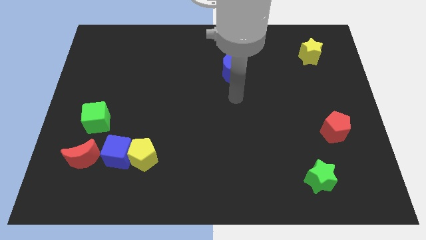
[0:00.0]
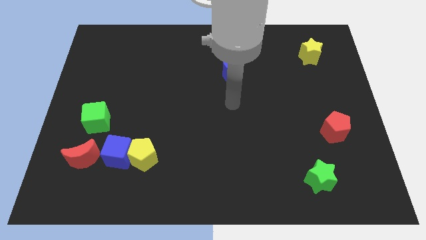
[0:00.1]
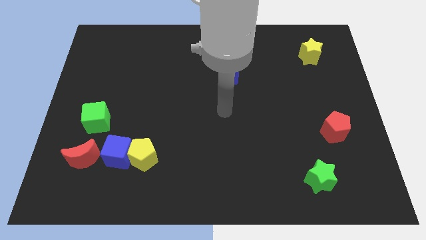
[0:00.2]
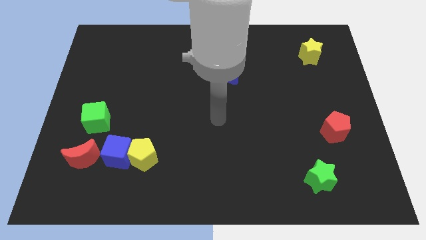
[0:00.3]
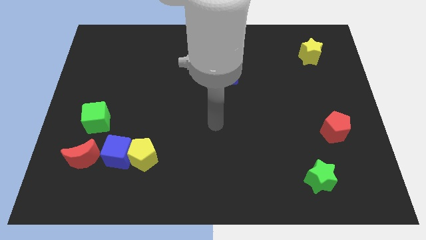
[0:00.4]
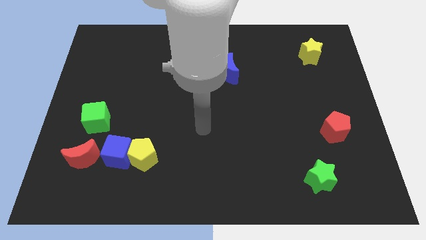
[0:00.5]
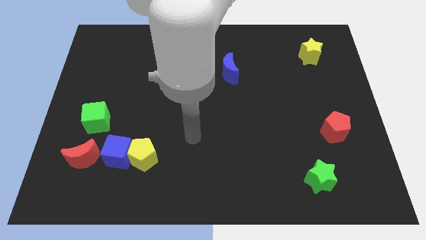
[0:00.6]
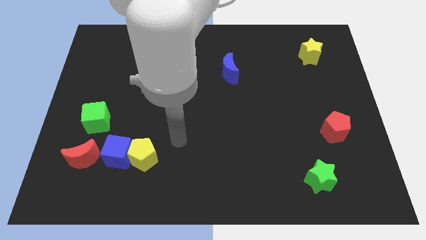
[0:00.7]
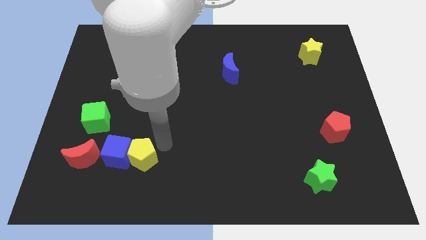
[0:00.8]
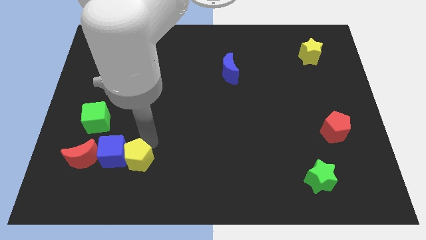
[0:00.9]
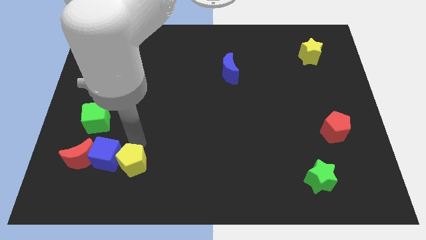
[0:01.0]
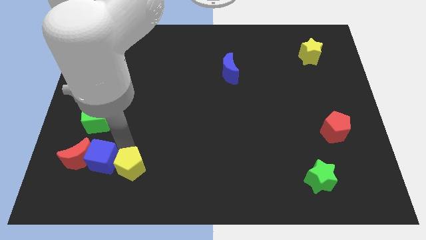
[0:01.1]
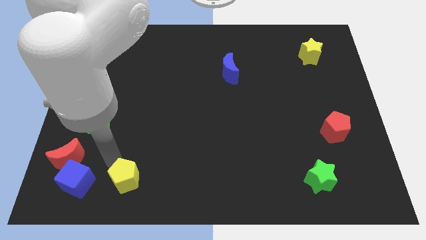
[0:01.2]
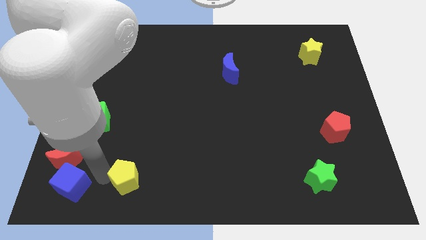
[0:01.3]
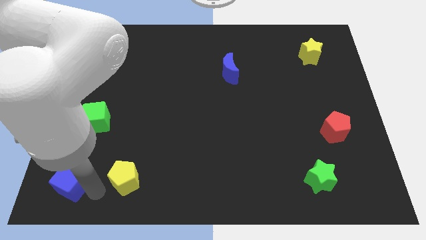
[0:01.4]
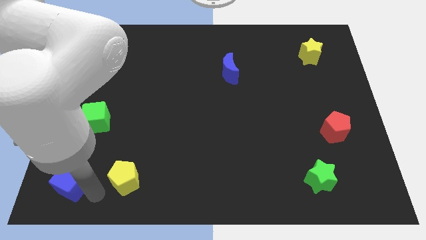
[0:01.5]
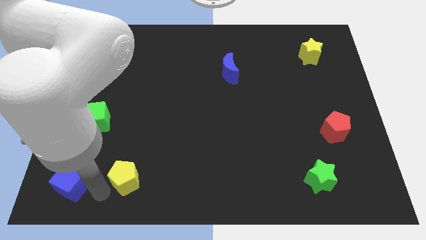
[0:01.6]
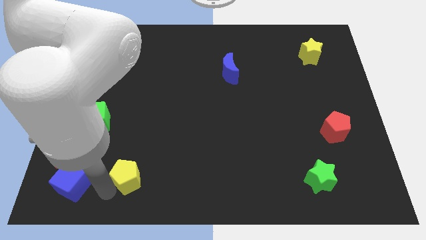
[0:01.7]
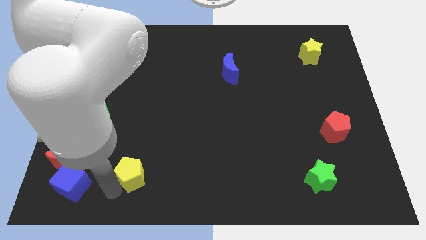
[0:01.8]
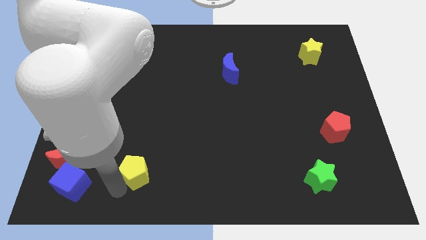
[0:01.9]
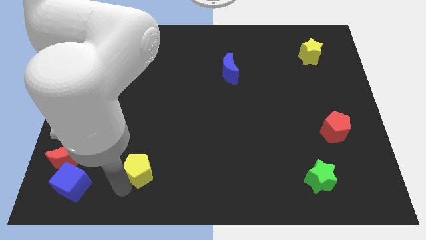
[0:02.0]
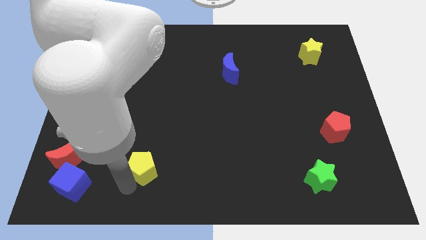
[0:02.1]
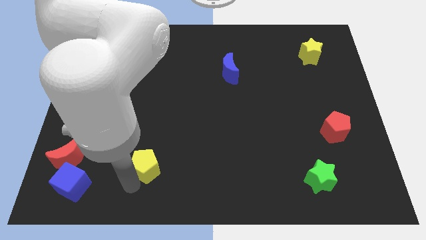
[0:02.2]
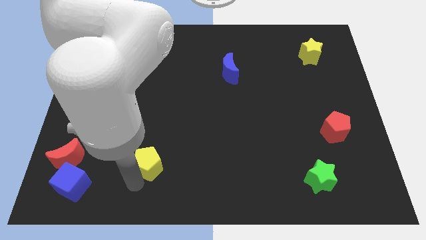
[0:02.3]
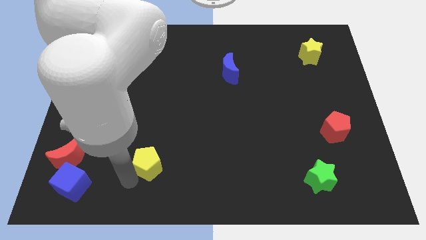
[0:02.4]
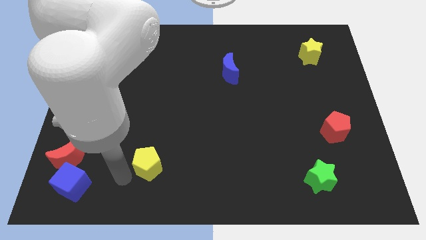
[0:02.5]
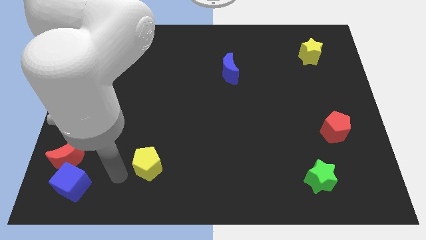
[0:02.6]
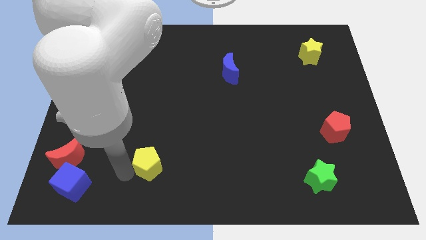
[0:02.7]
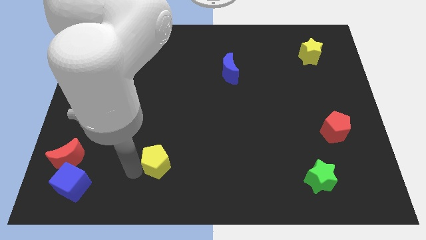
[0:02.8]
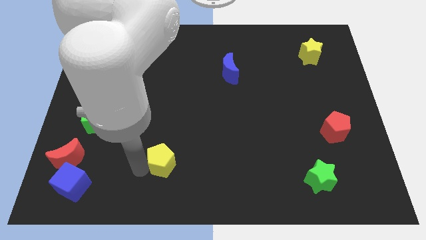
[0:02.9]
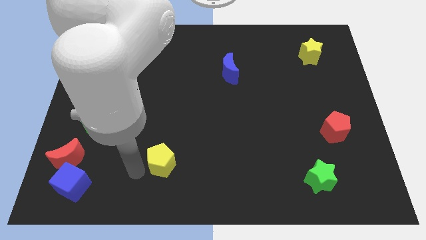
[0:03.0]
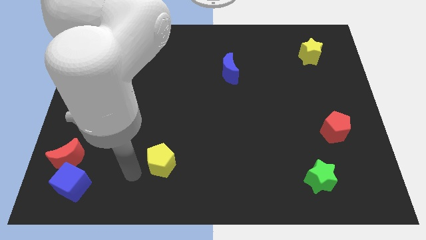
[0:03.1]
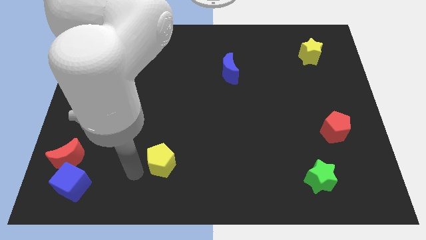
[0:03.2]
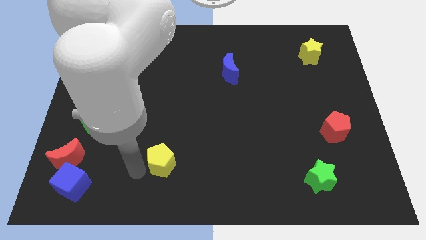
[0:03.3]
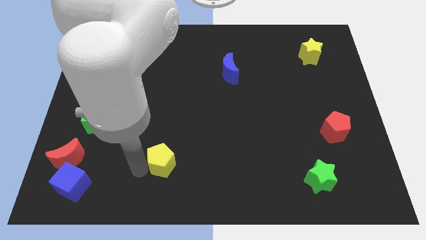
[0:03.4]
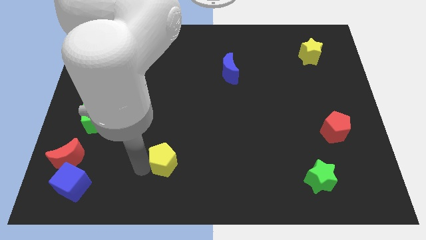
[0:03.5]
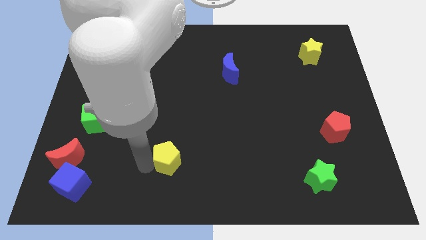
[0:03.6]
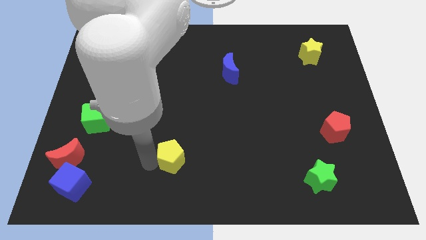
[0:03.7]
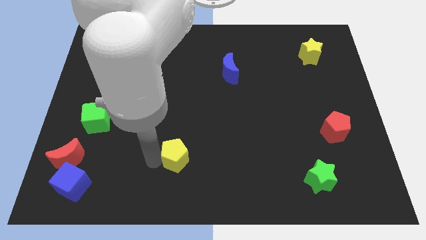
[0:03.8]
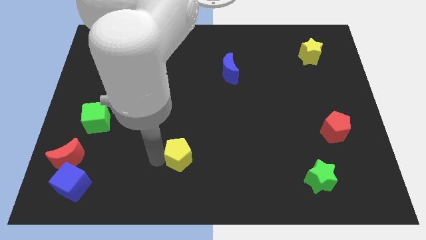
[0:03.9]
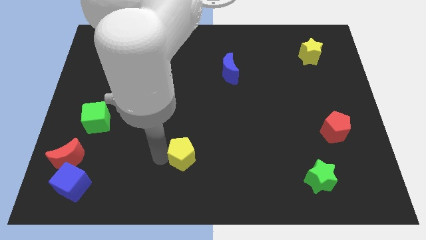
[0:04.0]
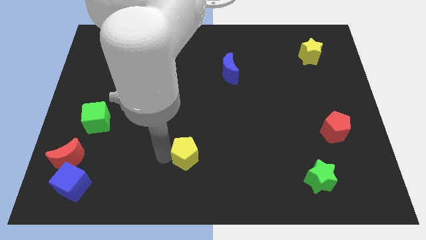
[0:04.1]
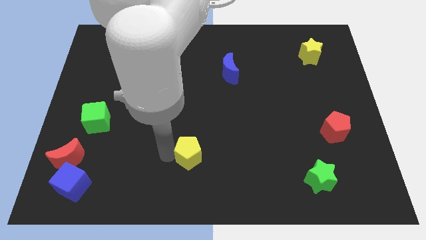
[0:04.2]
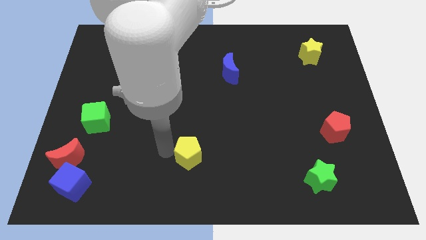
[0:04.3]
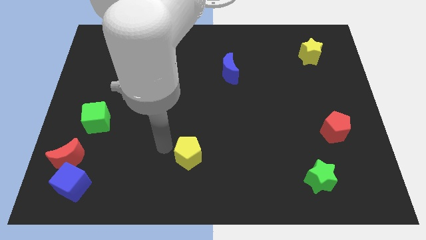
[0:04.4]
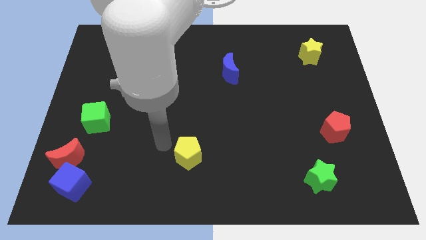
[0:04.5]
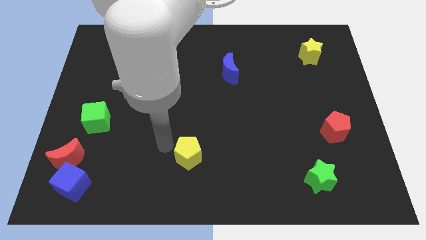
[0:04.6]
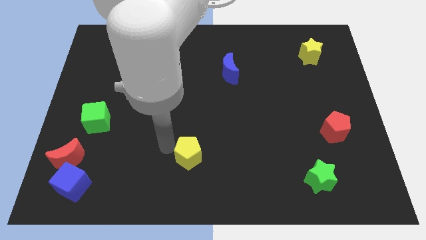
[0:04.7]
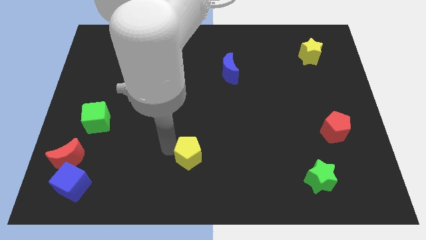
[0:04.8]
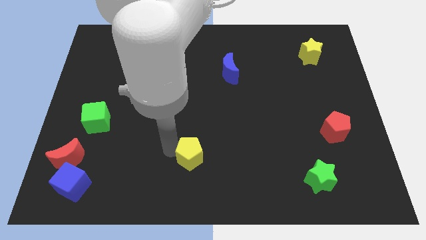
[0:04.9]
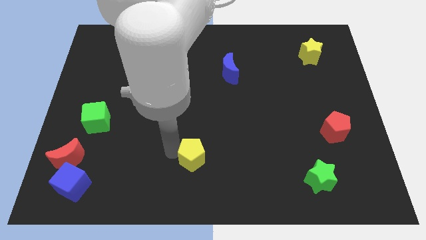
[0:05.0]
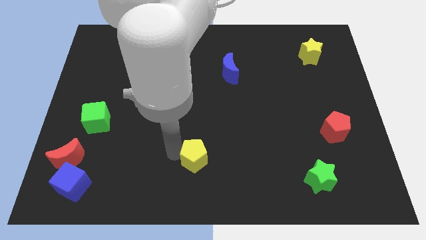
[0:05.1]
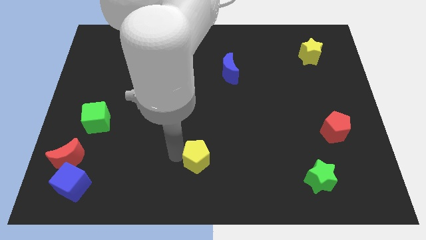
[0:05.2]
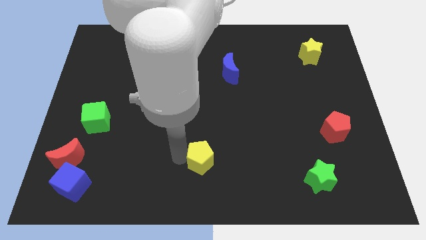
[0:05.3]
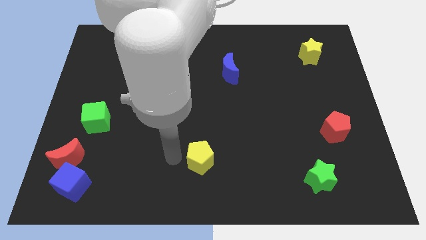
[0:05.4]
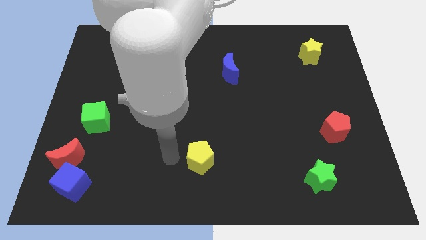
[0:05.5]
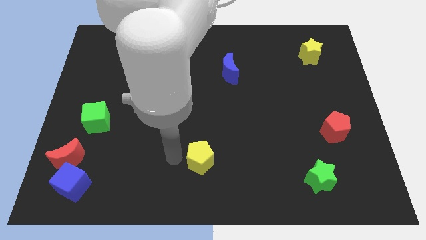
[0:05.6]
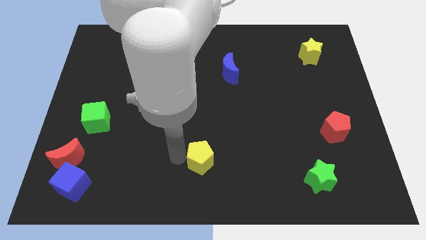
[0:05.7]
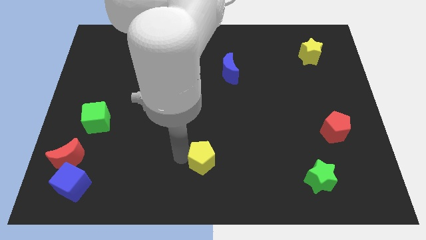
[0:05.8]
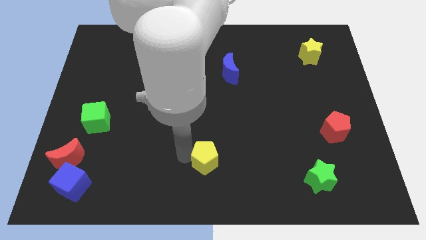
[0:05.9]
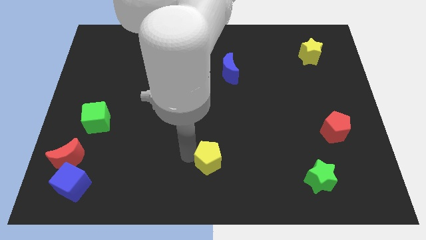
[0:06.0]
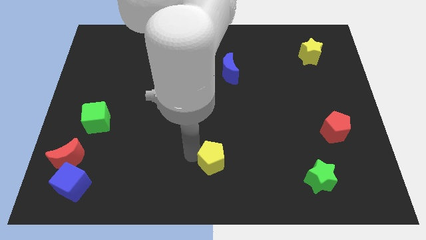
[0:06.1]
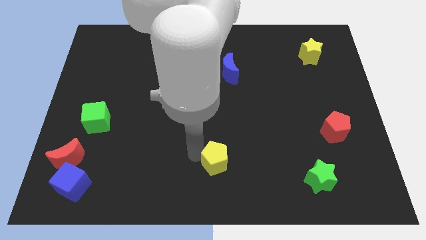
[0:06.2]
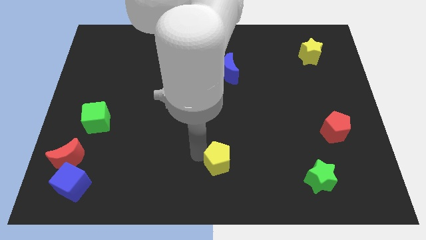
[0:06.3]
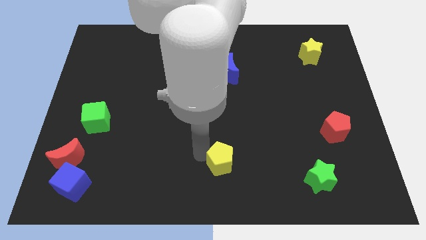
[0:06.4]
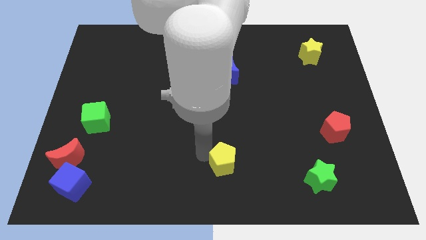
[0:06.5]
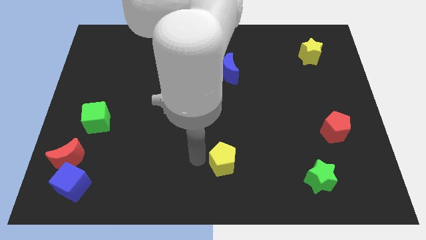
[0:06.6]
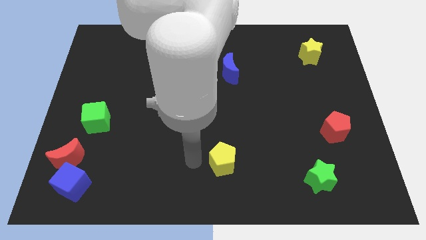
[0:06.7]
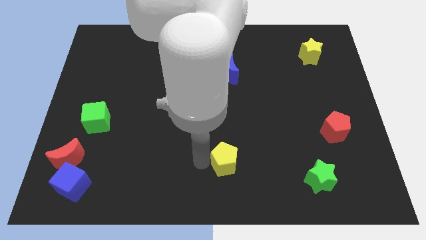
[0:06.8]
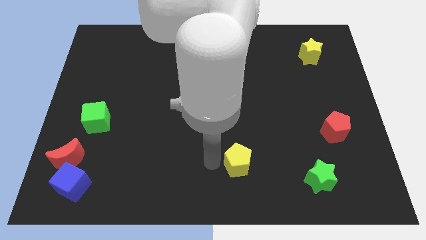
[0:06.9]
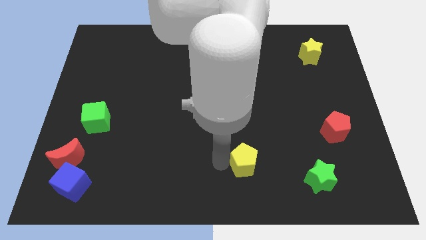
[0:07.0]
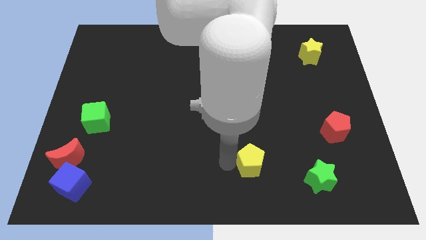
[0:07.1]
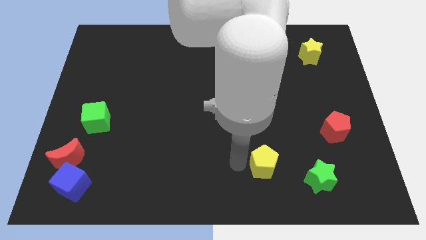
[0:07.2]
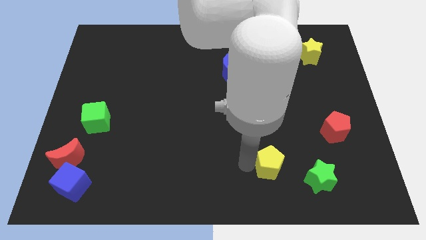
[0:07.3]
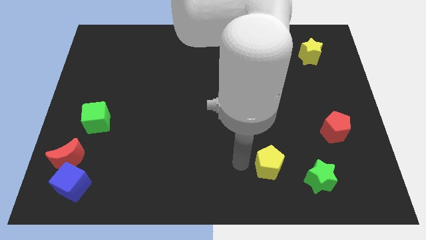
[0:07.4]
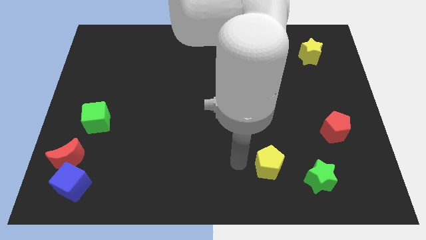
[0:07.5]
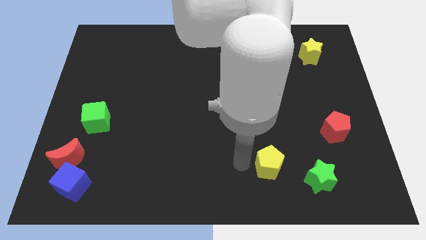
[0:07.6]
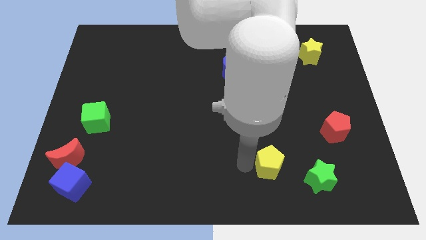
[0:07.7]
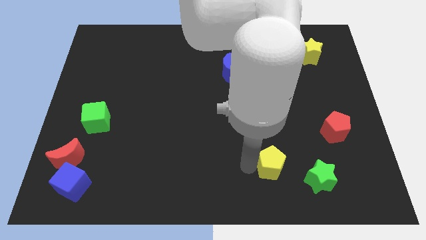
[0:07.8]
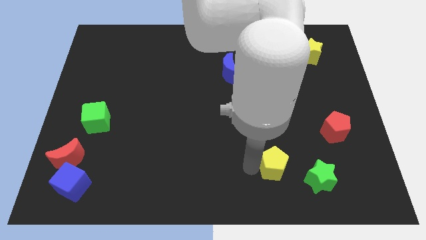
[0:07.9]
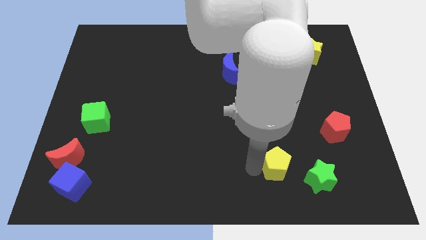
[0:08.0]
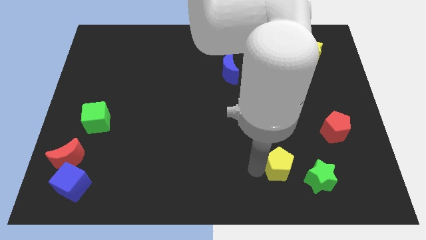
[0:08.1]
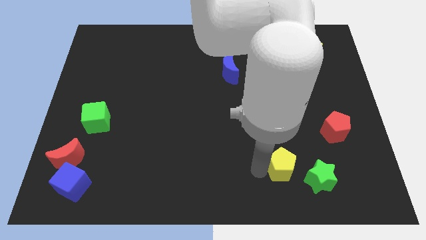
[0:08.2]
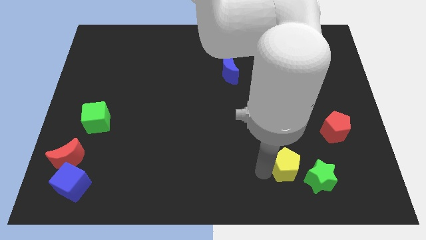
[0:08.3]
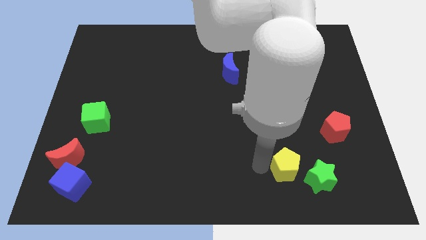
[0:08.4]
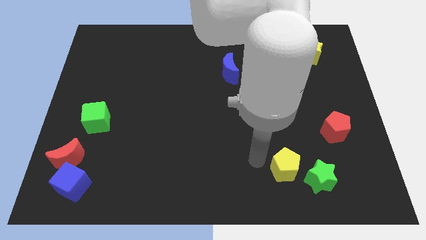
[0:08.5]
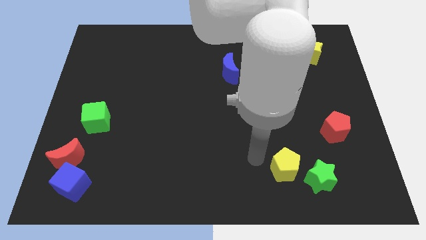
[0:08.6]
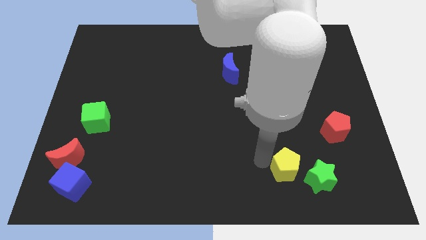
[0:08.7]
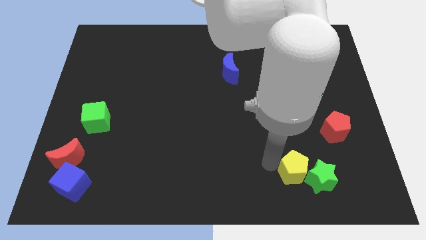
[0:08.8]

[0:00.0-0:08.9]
move the yellow pentagon close to the green star
